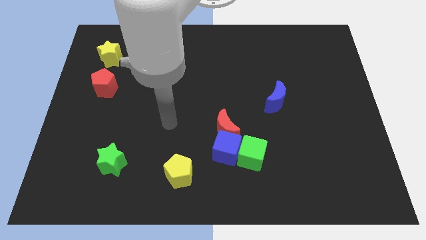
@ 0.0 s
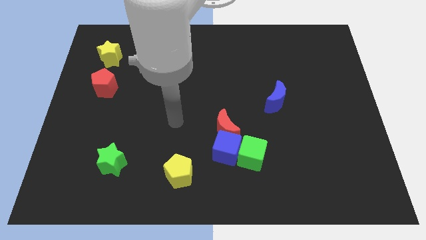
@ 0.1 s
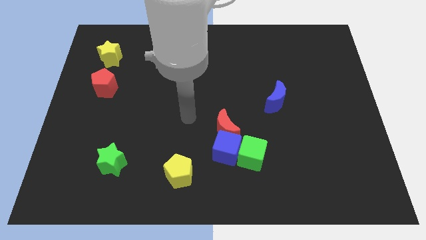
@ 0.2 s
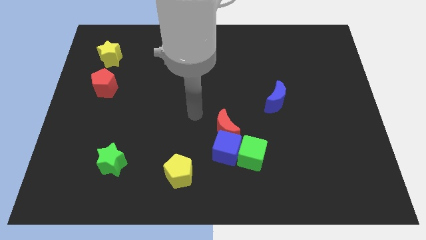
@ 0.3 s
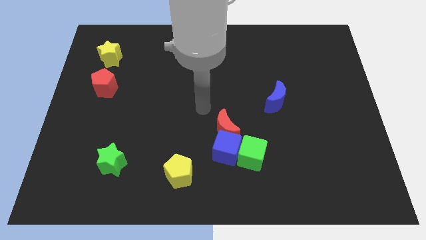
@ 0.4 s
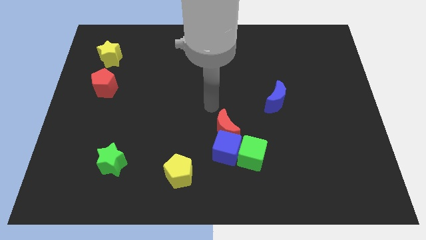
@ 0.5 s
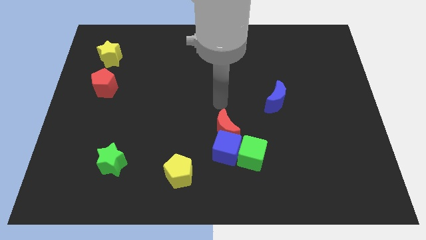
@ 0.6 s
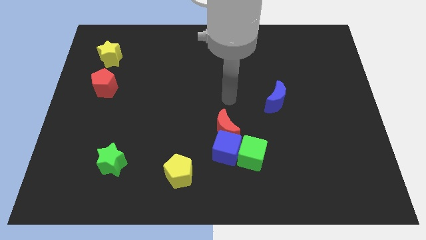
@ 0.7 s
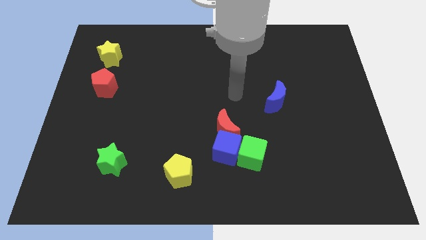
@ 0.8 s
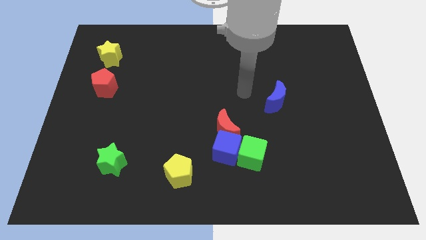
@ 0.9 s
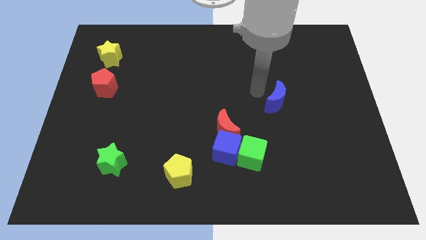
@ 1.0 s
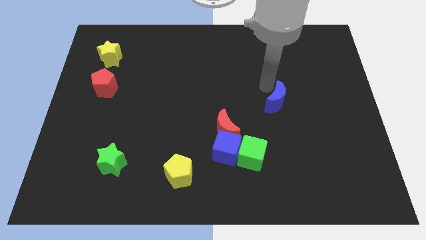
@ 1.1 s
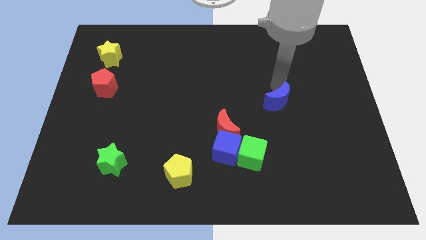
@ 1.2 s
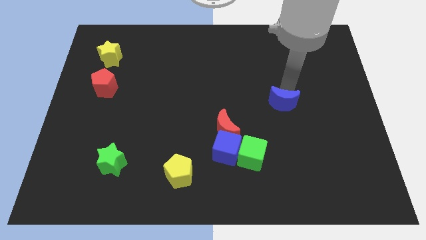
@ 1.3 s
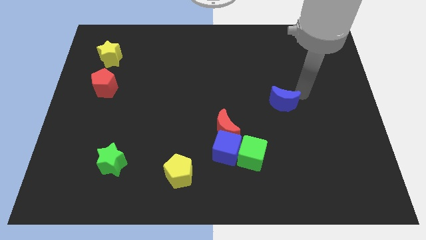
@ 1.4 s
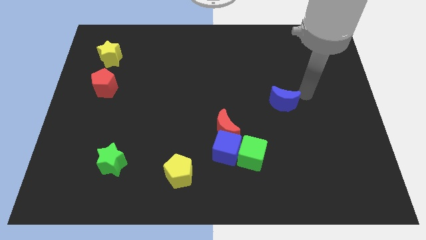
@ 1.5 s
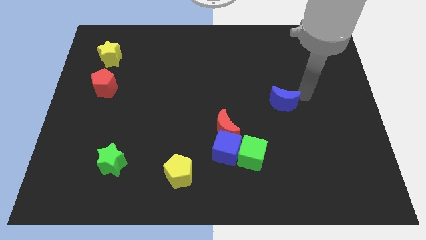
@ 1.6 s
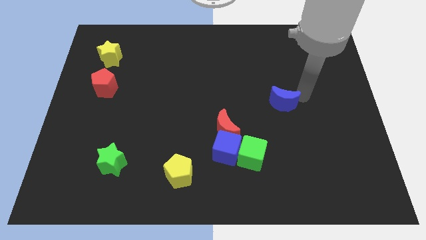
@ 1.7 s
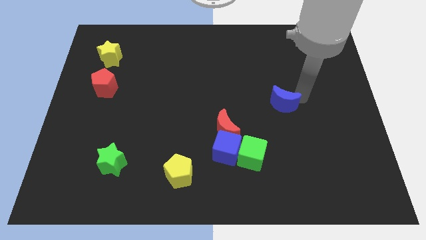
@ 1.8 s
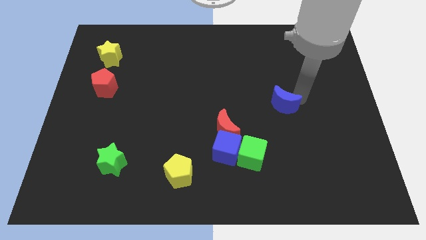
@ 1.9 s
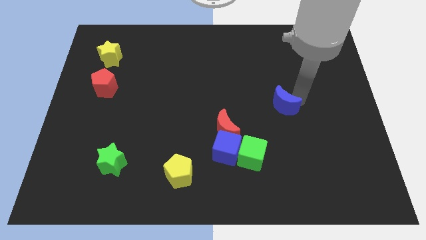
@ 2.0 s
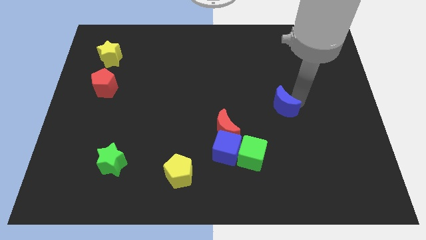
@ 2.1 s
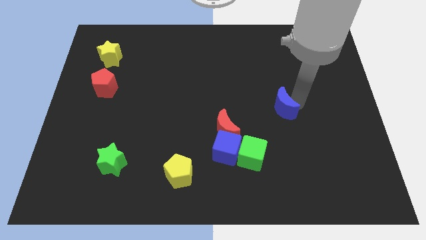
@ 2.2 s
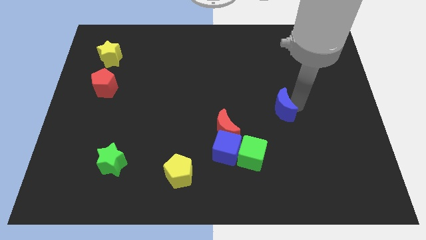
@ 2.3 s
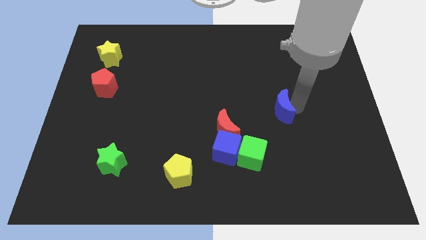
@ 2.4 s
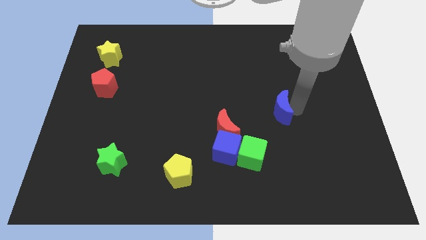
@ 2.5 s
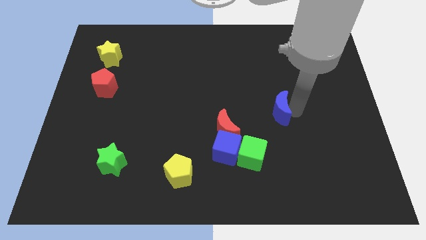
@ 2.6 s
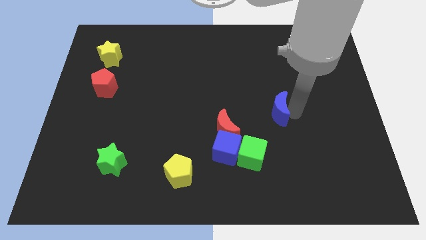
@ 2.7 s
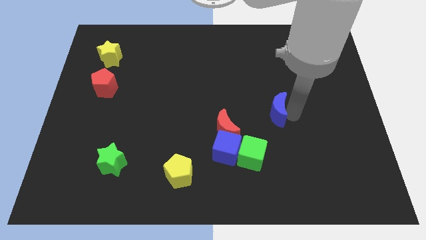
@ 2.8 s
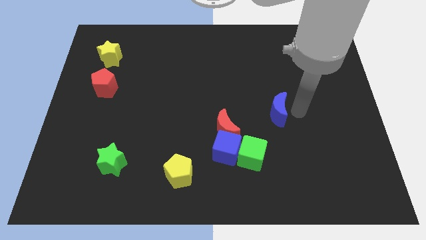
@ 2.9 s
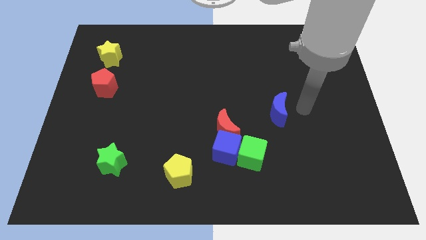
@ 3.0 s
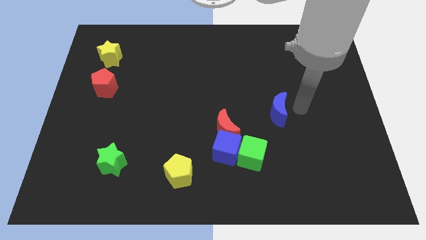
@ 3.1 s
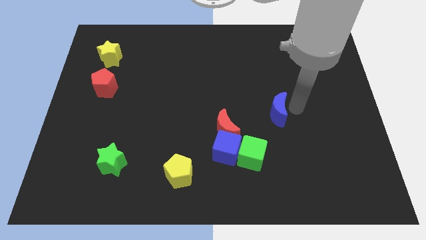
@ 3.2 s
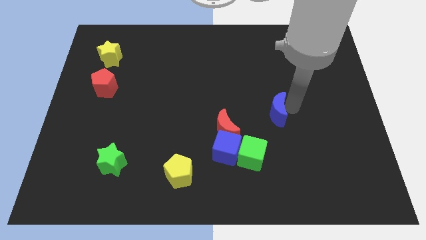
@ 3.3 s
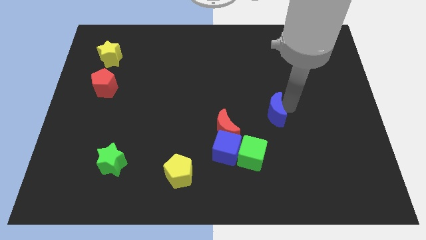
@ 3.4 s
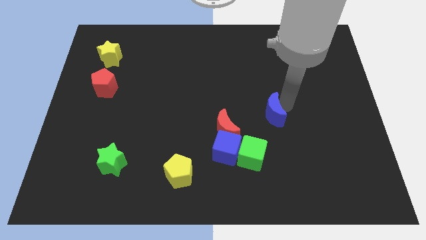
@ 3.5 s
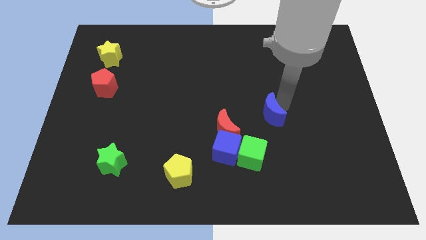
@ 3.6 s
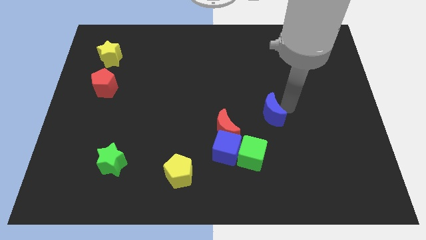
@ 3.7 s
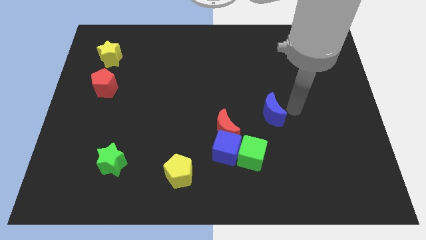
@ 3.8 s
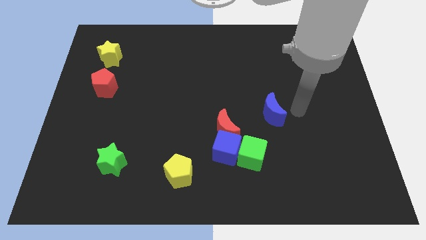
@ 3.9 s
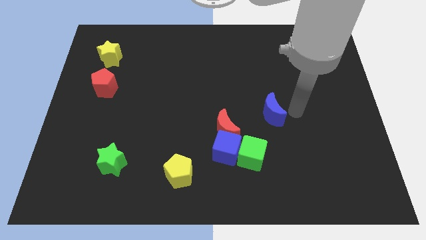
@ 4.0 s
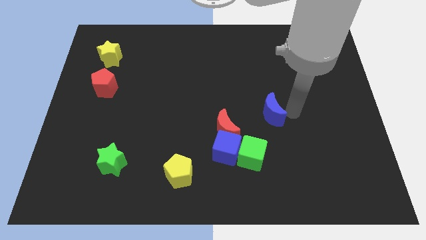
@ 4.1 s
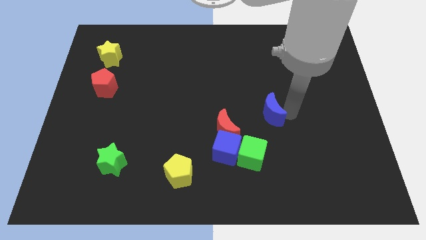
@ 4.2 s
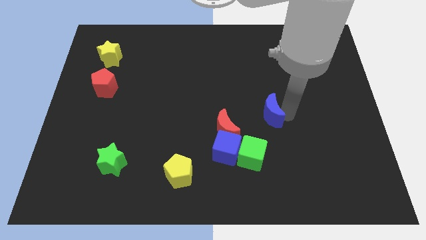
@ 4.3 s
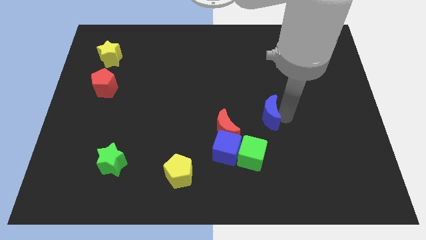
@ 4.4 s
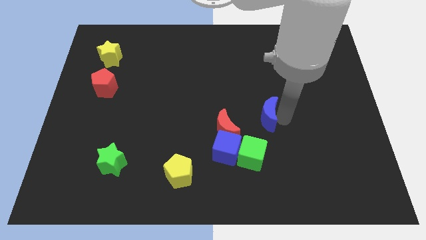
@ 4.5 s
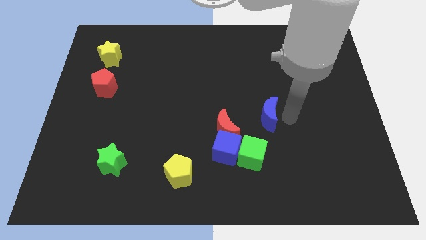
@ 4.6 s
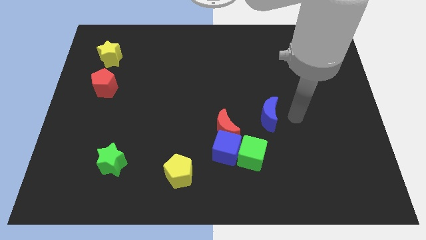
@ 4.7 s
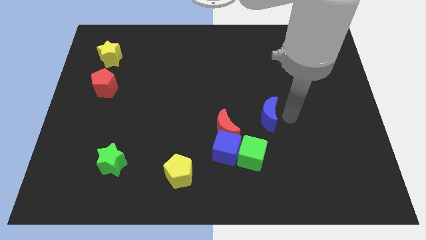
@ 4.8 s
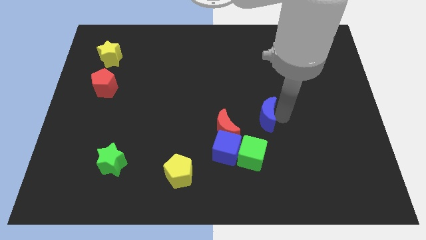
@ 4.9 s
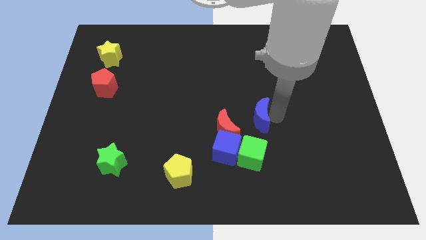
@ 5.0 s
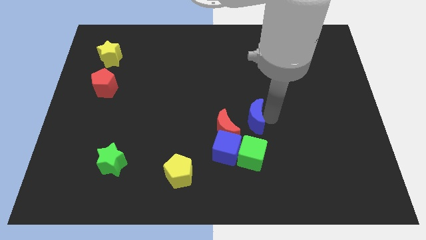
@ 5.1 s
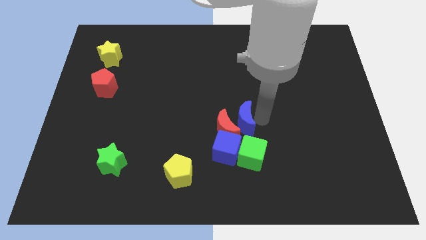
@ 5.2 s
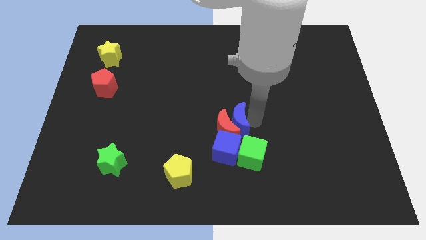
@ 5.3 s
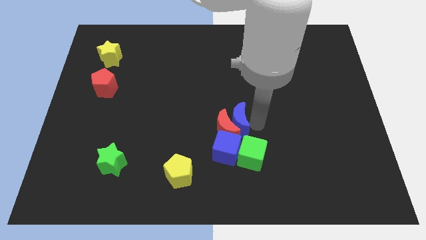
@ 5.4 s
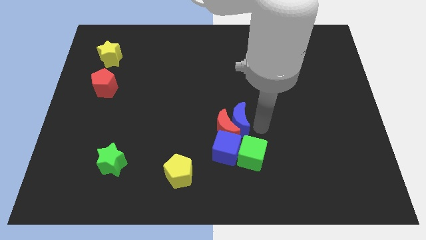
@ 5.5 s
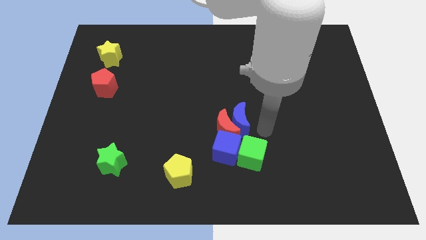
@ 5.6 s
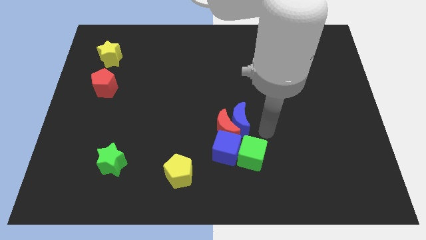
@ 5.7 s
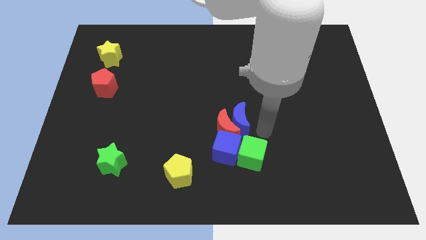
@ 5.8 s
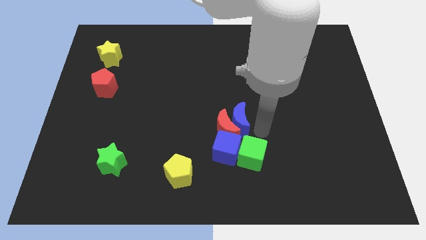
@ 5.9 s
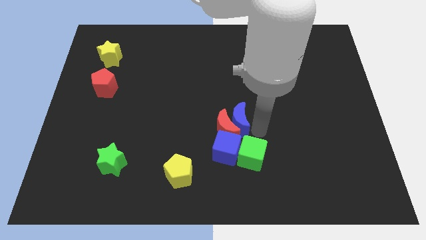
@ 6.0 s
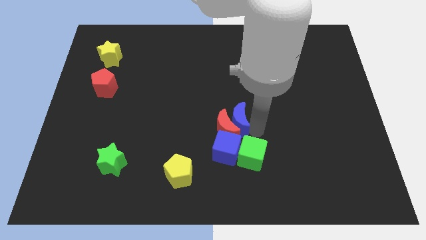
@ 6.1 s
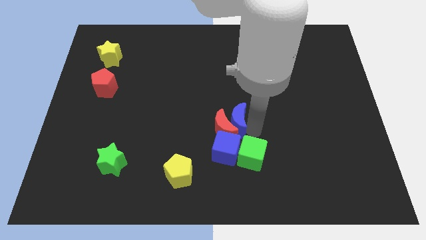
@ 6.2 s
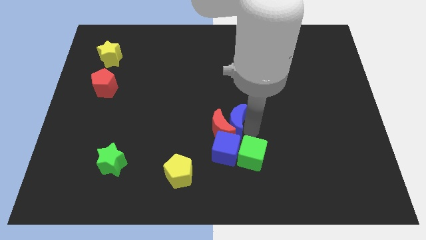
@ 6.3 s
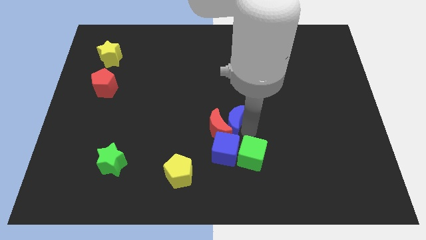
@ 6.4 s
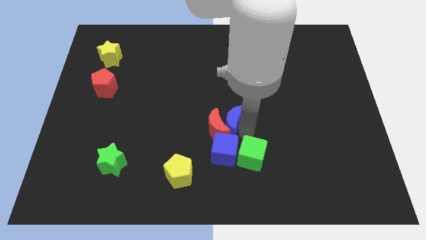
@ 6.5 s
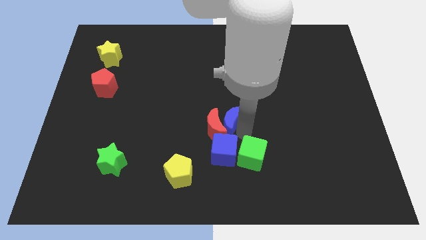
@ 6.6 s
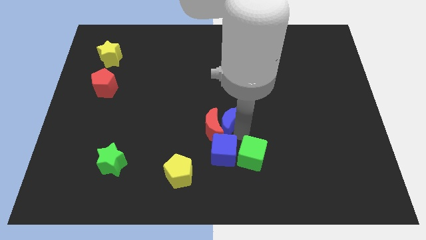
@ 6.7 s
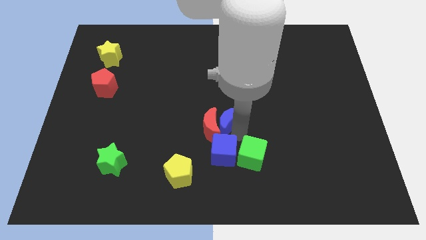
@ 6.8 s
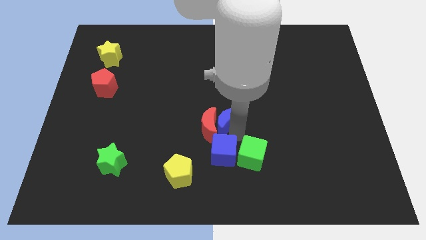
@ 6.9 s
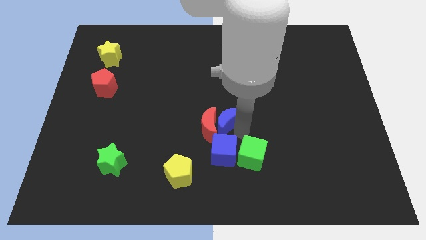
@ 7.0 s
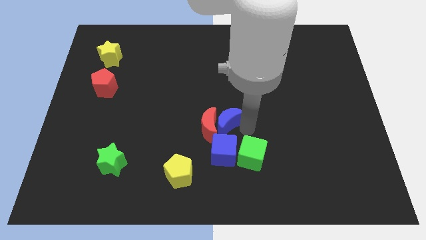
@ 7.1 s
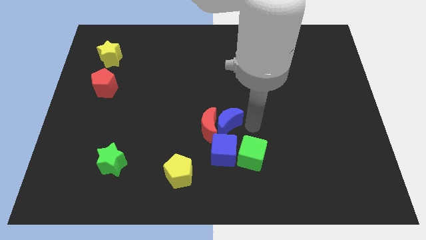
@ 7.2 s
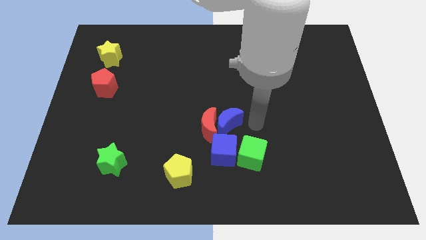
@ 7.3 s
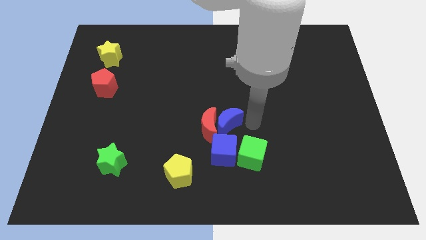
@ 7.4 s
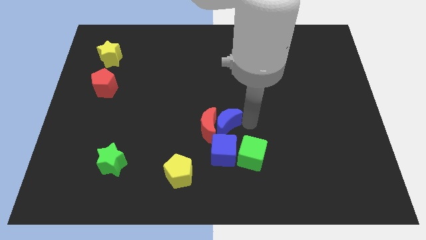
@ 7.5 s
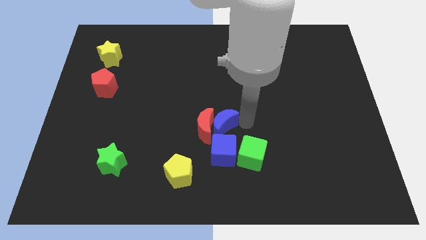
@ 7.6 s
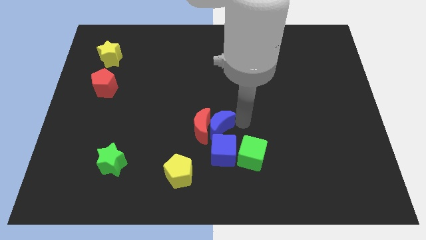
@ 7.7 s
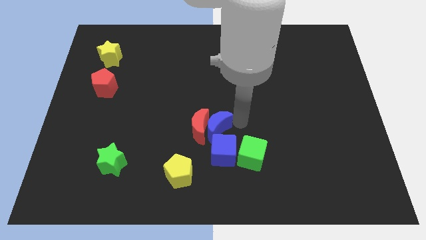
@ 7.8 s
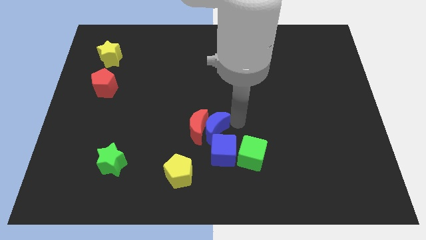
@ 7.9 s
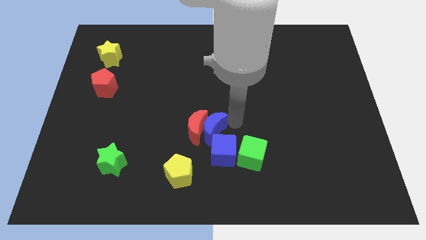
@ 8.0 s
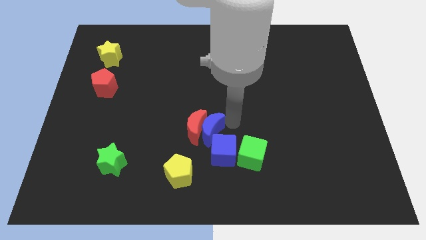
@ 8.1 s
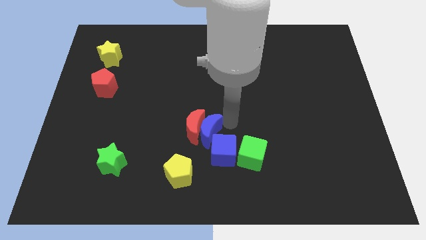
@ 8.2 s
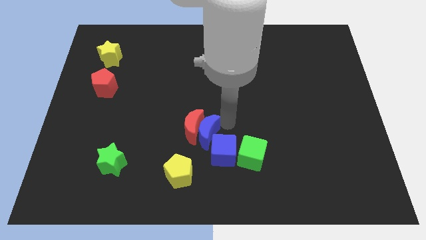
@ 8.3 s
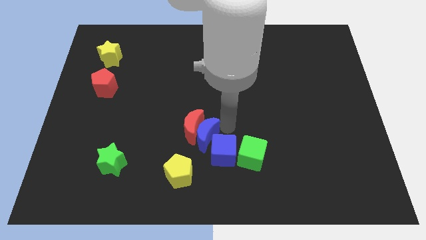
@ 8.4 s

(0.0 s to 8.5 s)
put the blue moon to the left of the green cube
